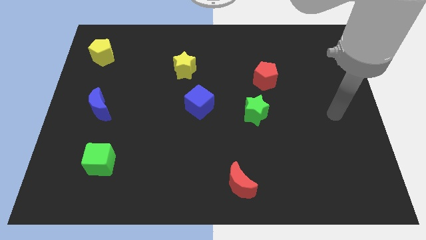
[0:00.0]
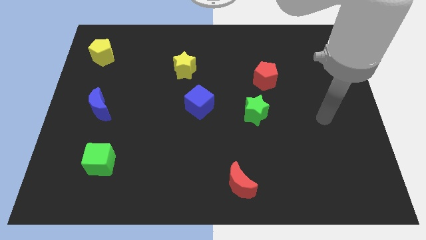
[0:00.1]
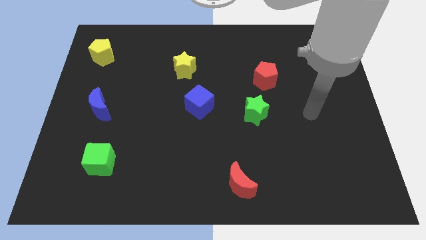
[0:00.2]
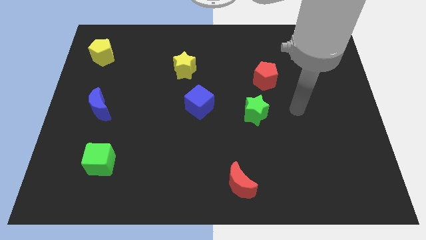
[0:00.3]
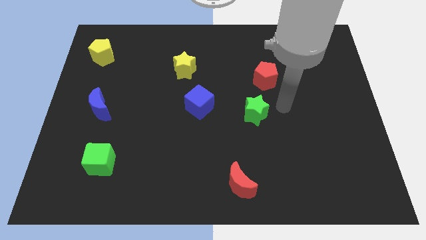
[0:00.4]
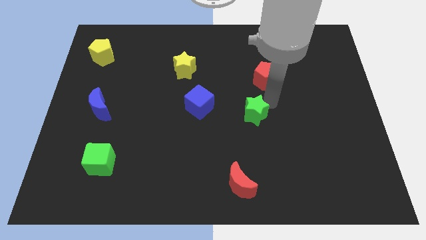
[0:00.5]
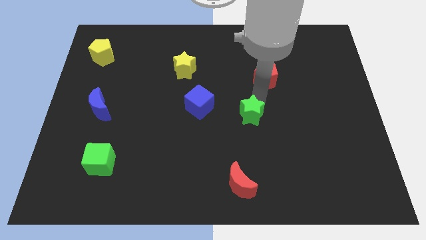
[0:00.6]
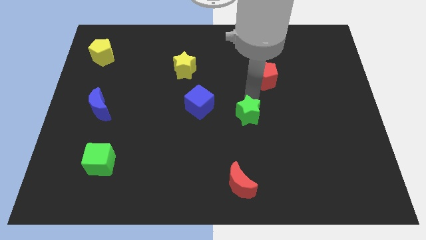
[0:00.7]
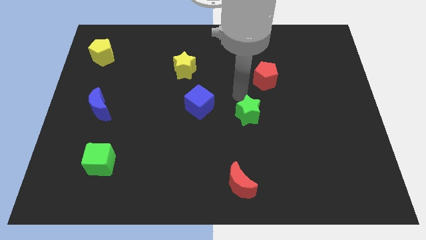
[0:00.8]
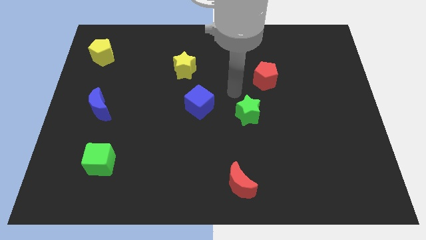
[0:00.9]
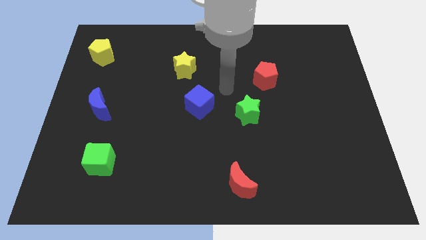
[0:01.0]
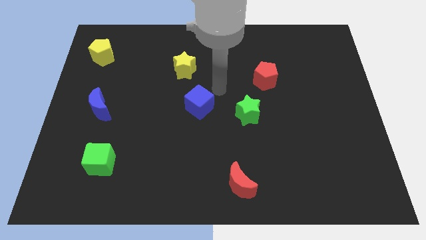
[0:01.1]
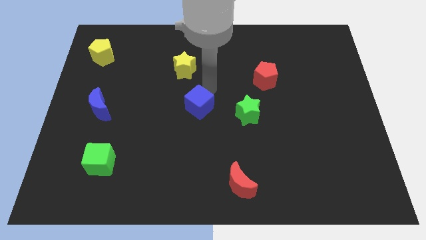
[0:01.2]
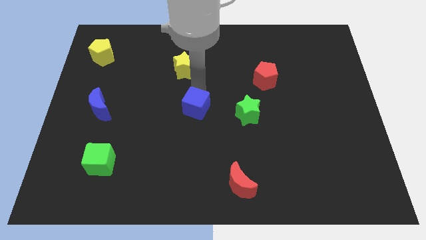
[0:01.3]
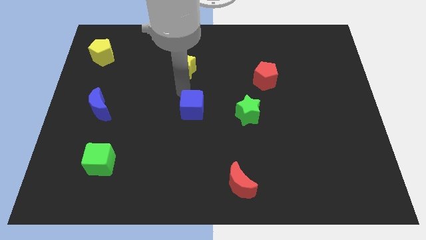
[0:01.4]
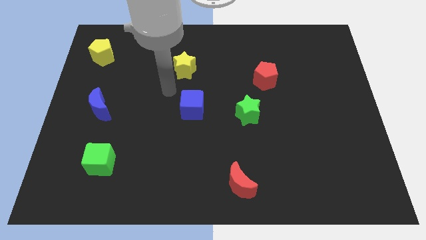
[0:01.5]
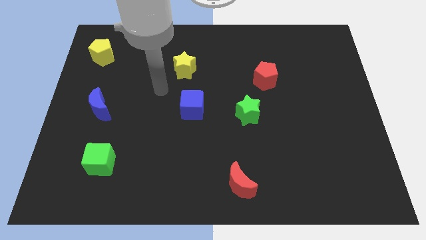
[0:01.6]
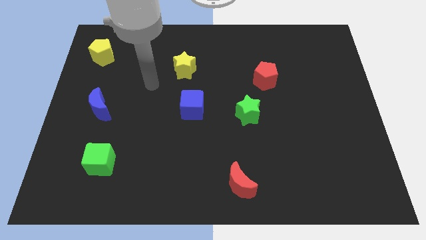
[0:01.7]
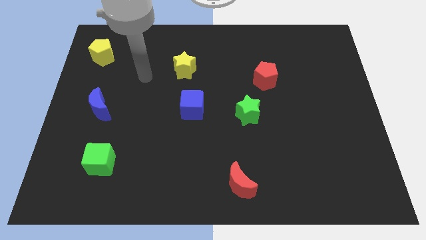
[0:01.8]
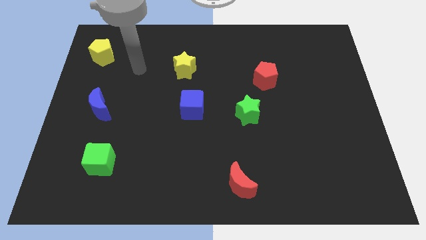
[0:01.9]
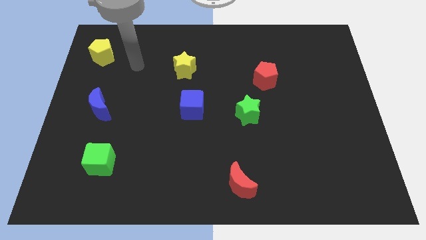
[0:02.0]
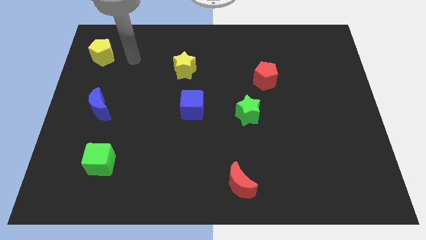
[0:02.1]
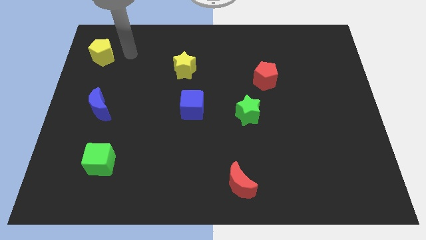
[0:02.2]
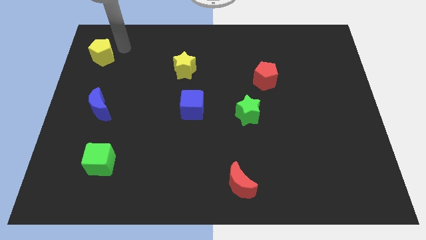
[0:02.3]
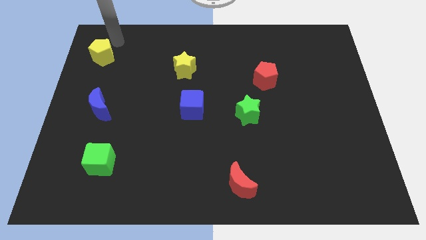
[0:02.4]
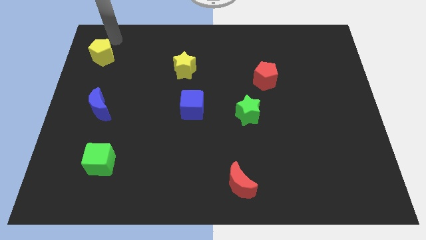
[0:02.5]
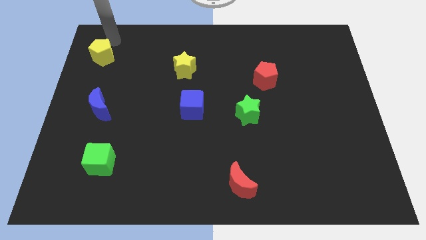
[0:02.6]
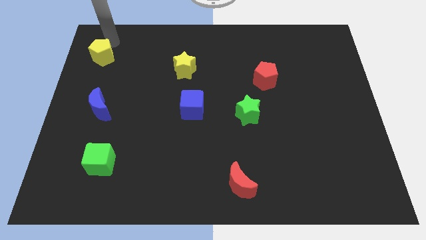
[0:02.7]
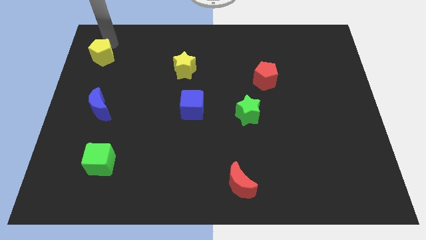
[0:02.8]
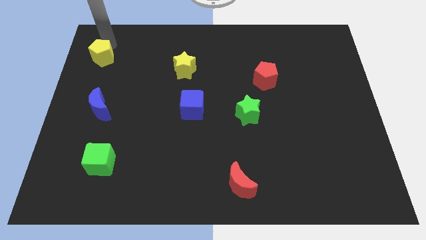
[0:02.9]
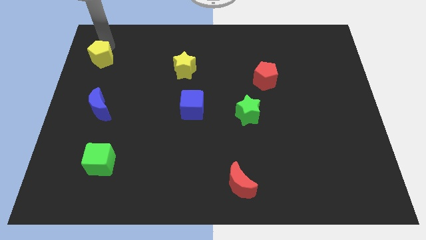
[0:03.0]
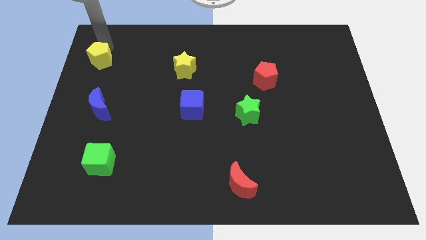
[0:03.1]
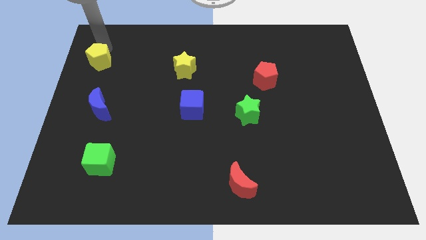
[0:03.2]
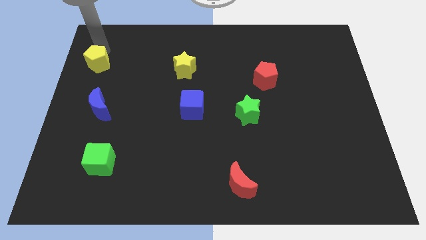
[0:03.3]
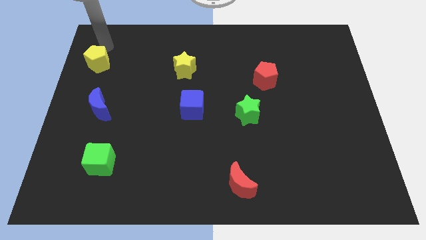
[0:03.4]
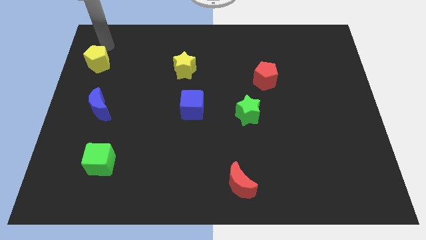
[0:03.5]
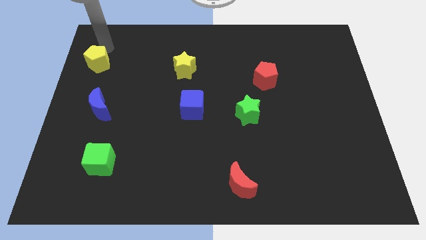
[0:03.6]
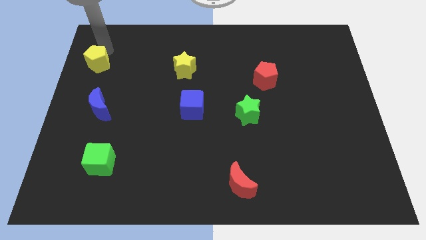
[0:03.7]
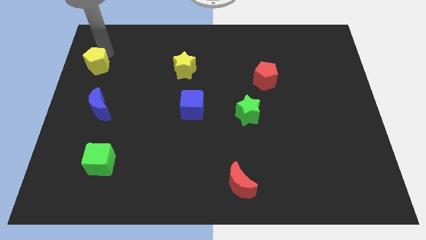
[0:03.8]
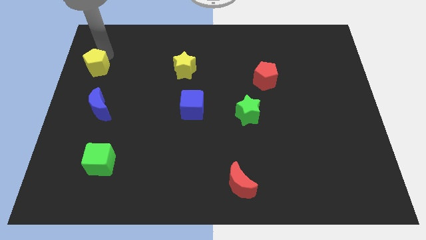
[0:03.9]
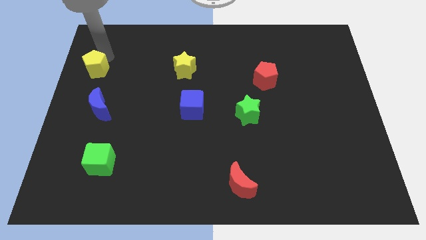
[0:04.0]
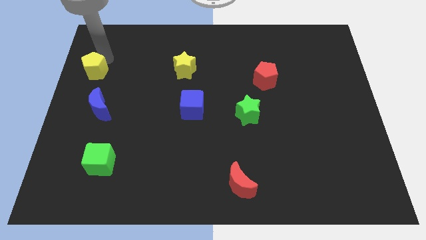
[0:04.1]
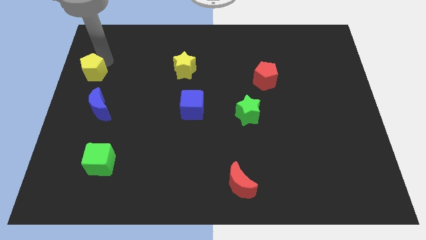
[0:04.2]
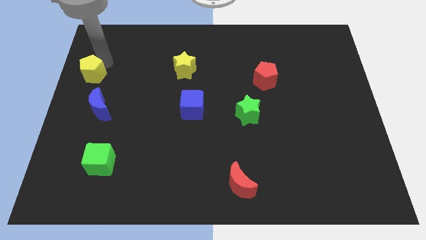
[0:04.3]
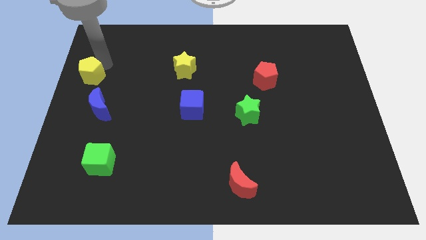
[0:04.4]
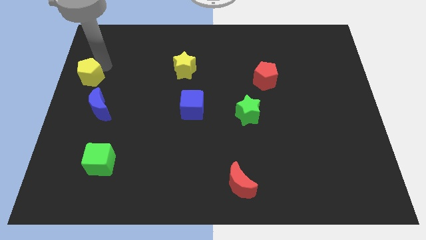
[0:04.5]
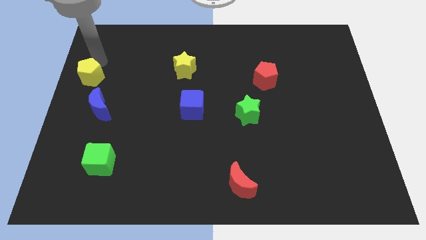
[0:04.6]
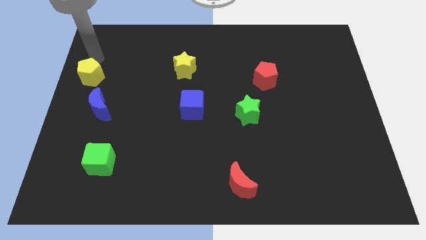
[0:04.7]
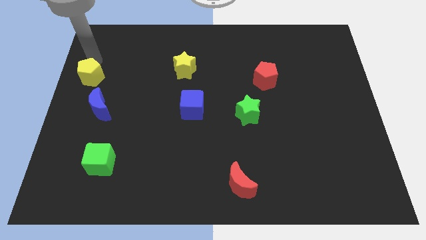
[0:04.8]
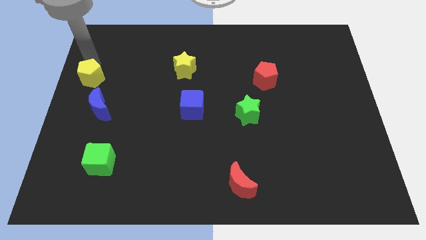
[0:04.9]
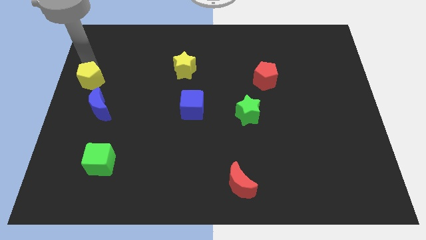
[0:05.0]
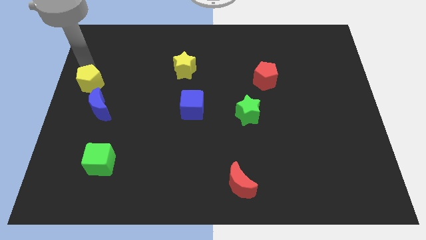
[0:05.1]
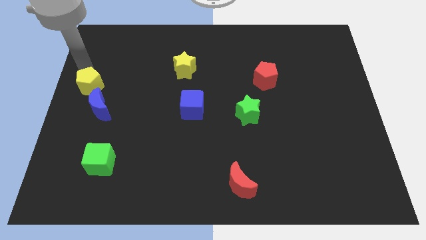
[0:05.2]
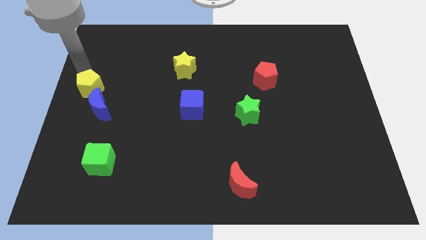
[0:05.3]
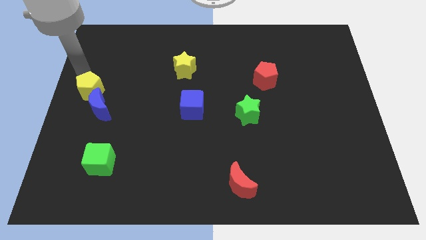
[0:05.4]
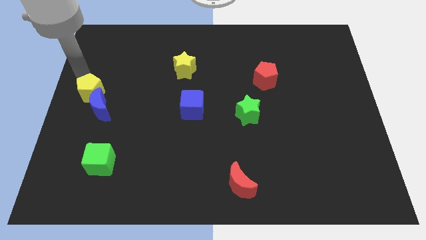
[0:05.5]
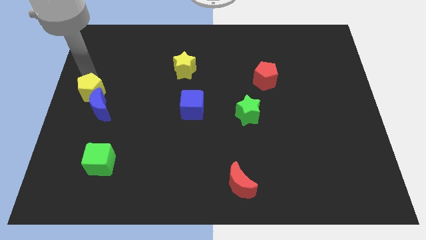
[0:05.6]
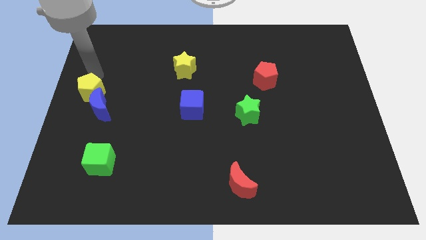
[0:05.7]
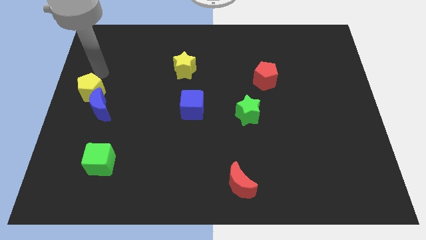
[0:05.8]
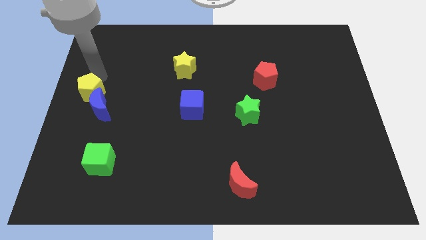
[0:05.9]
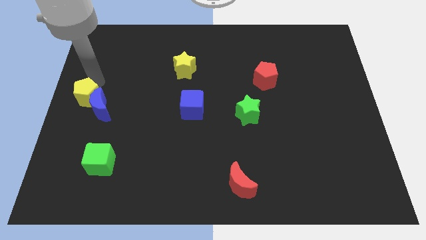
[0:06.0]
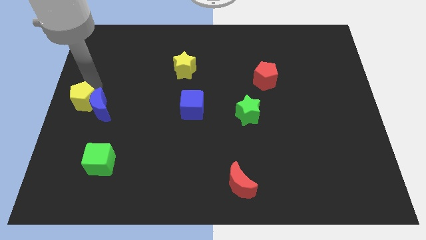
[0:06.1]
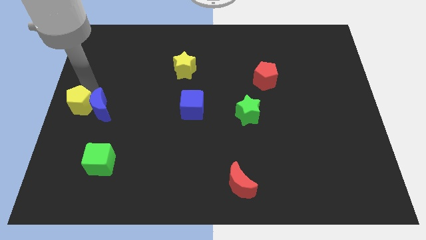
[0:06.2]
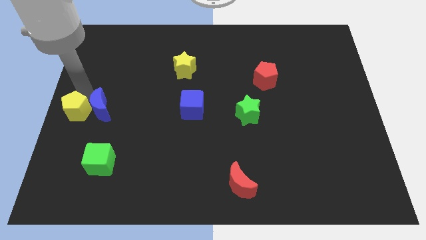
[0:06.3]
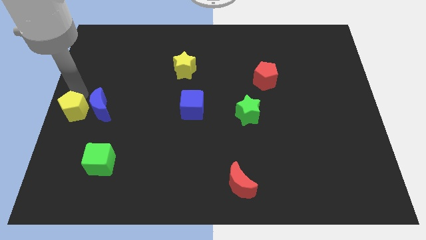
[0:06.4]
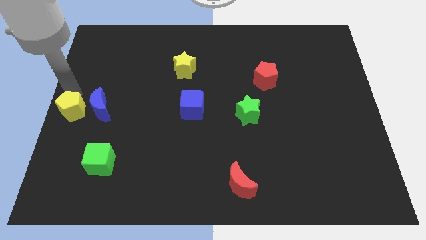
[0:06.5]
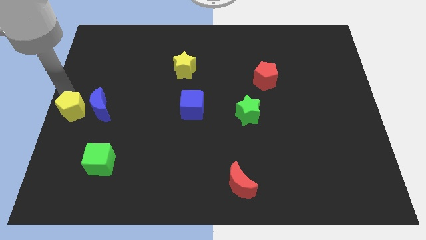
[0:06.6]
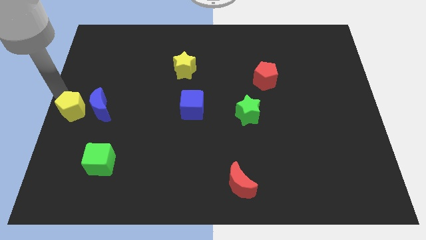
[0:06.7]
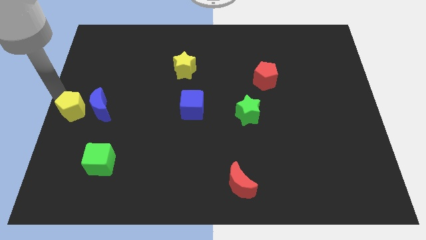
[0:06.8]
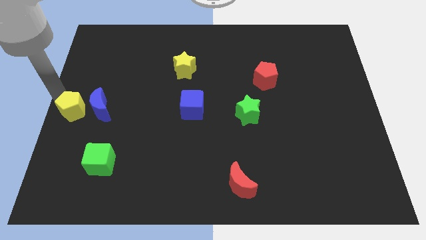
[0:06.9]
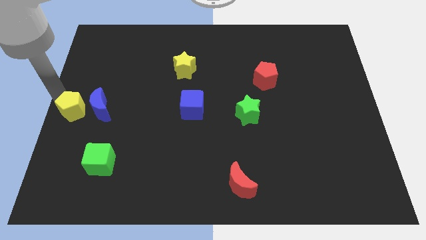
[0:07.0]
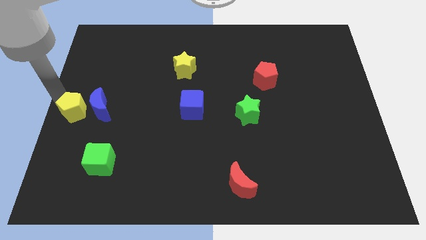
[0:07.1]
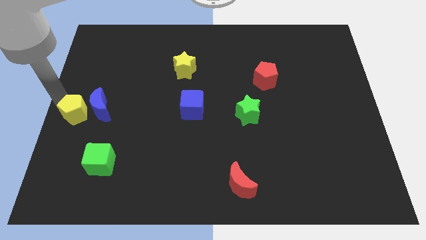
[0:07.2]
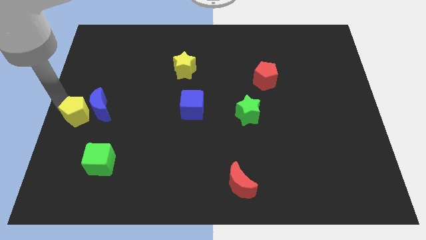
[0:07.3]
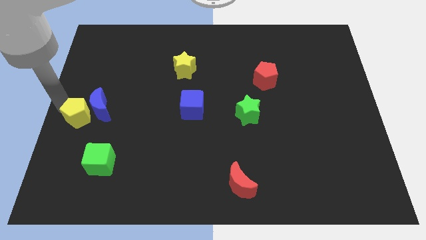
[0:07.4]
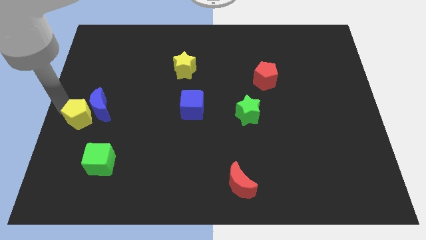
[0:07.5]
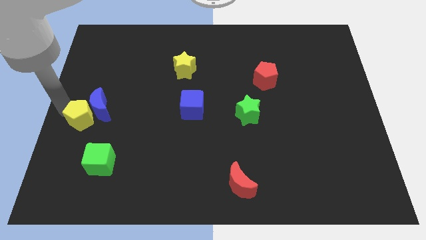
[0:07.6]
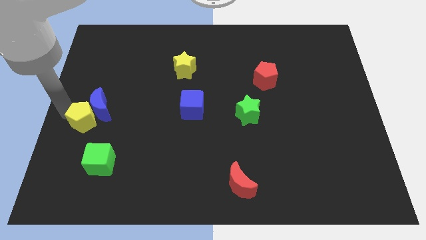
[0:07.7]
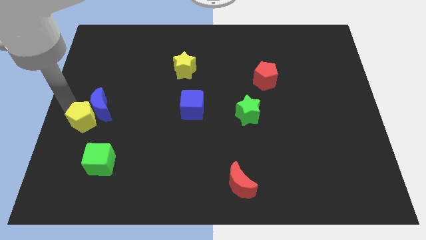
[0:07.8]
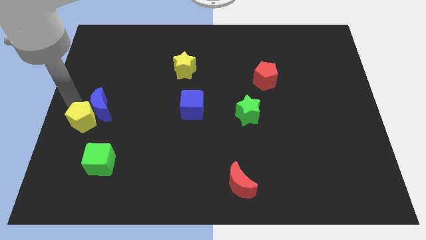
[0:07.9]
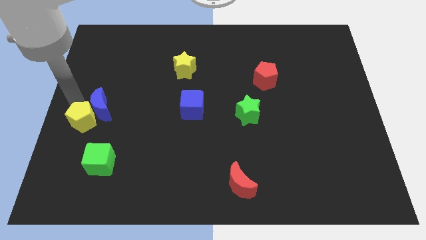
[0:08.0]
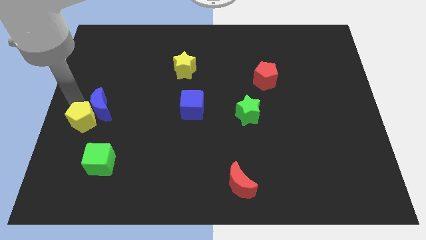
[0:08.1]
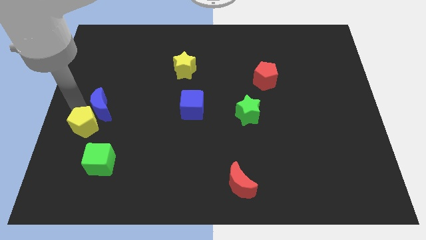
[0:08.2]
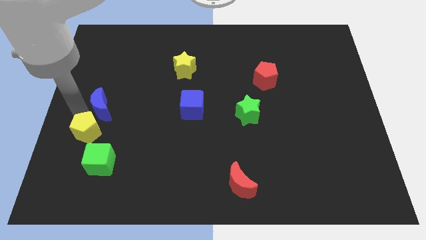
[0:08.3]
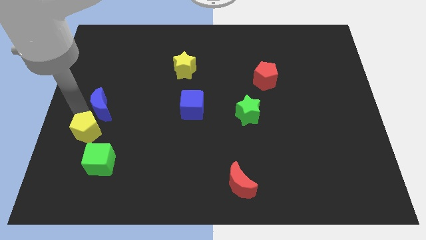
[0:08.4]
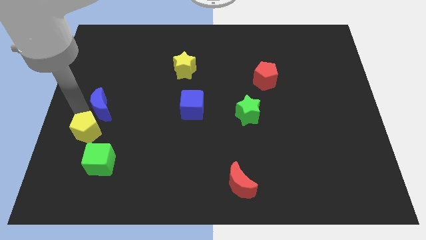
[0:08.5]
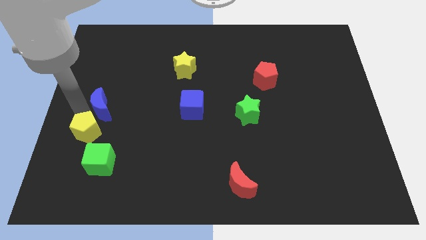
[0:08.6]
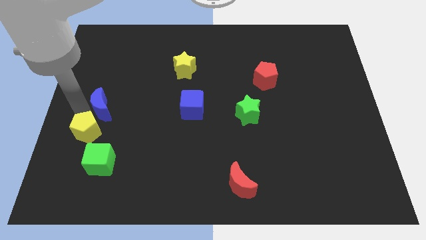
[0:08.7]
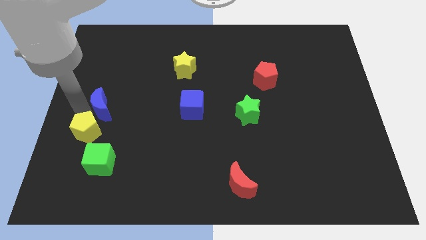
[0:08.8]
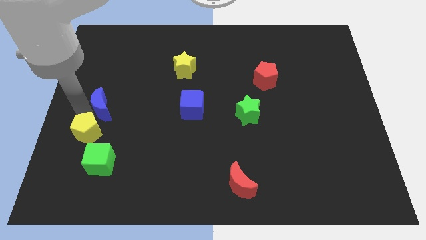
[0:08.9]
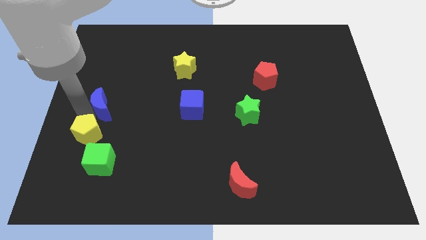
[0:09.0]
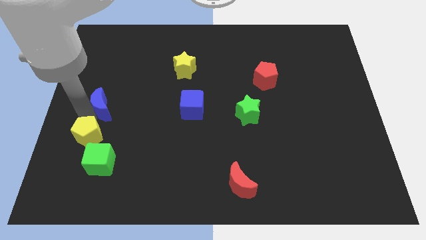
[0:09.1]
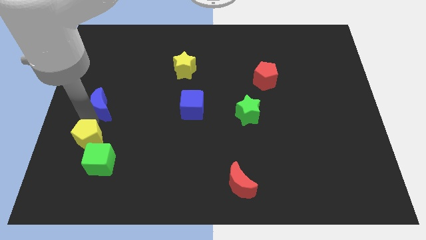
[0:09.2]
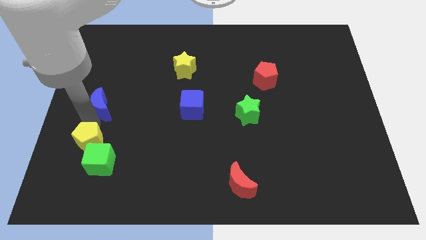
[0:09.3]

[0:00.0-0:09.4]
slide the yellow pentagon to the green cube
